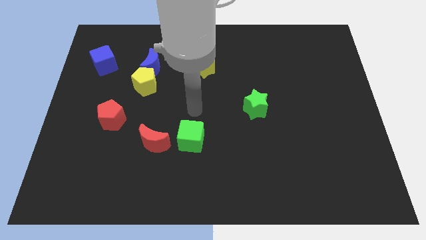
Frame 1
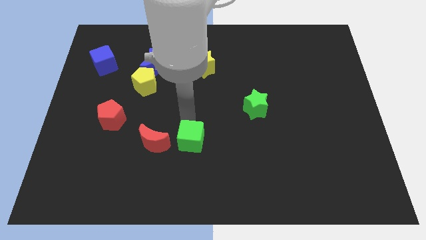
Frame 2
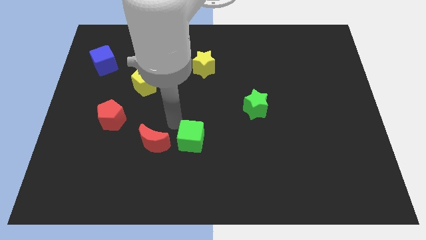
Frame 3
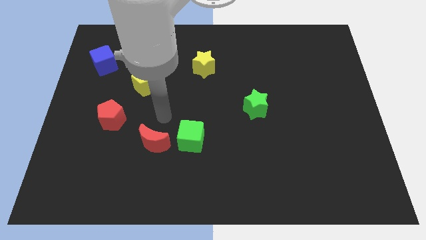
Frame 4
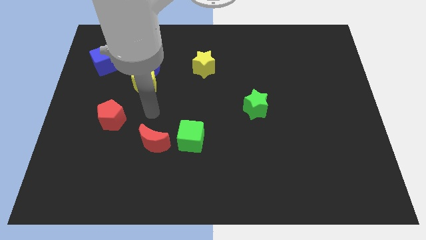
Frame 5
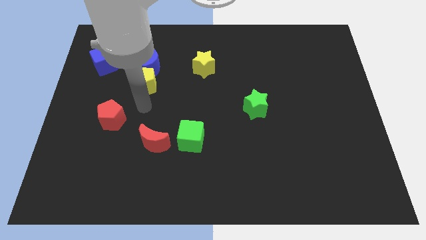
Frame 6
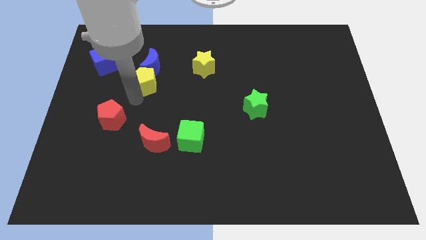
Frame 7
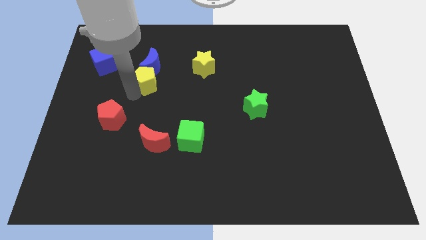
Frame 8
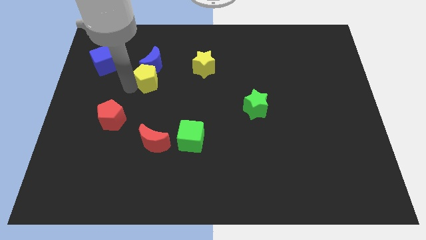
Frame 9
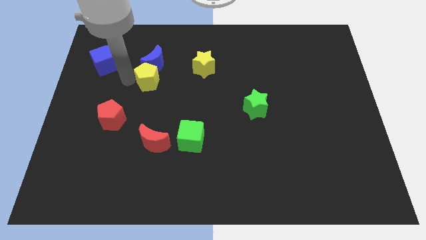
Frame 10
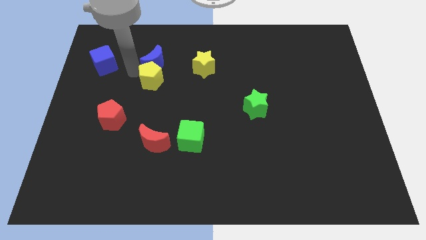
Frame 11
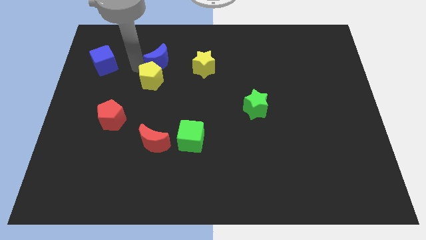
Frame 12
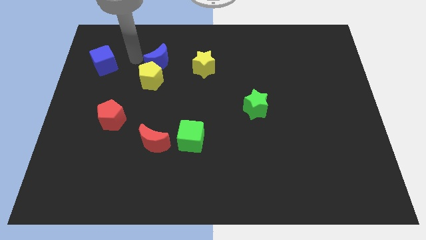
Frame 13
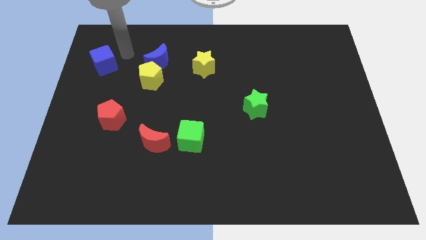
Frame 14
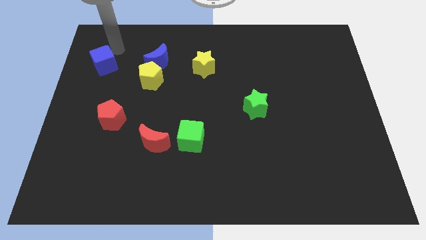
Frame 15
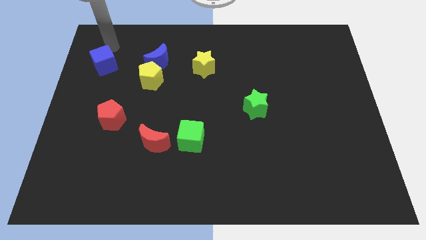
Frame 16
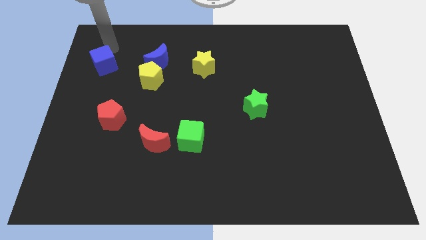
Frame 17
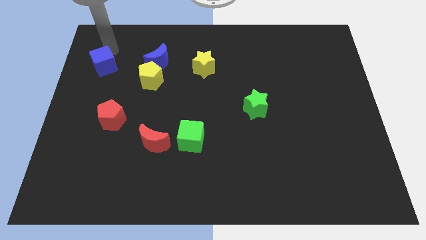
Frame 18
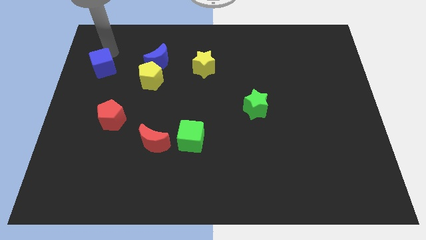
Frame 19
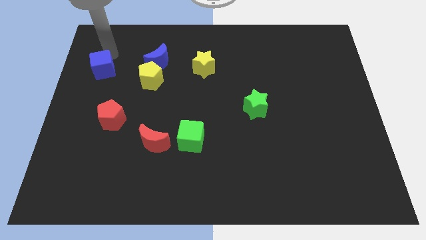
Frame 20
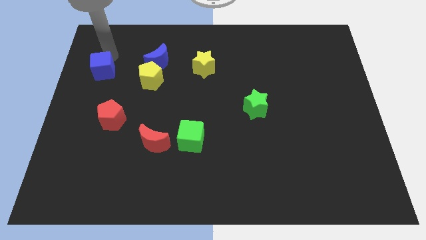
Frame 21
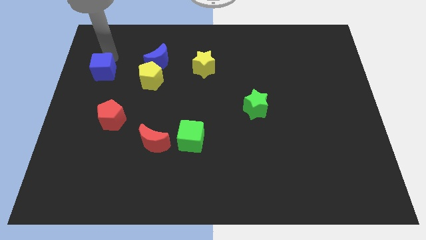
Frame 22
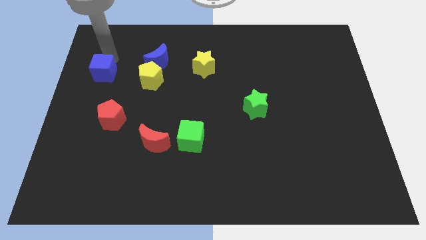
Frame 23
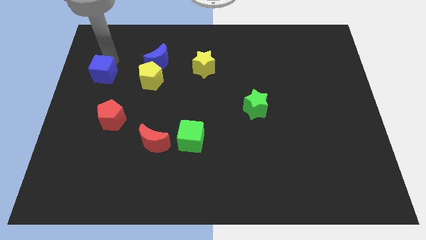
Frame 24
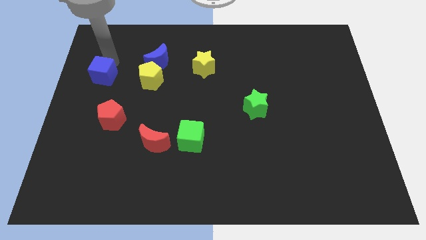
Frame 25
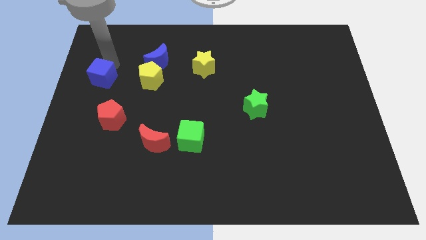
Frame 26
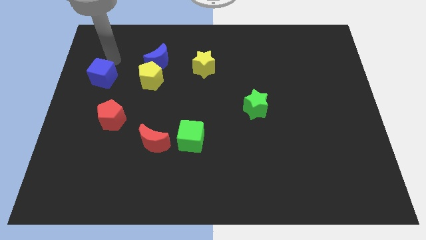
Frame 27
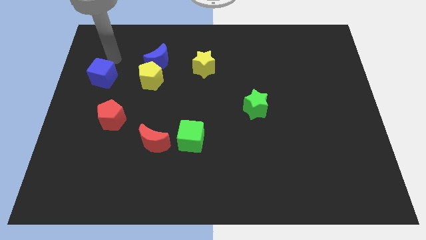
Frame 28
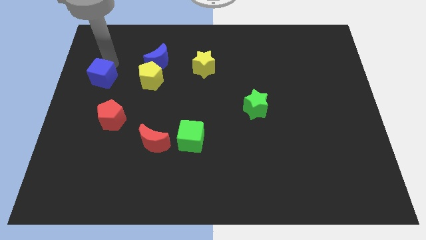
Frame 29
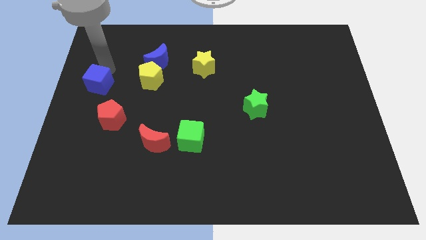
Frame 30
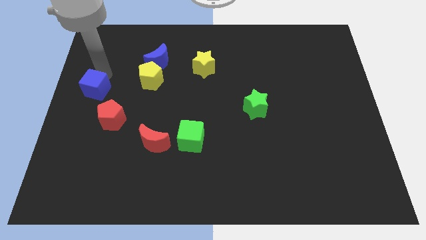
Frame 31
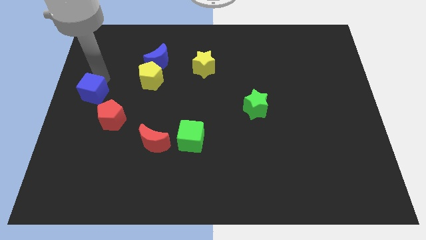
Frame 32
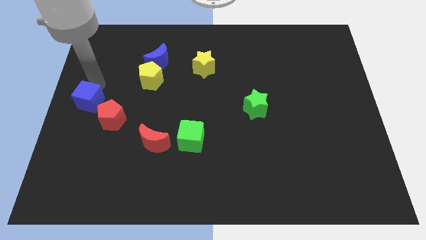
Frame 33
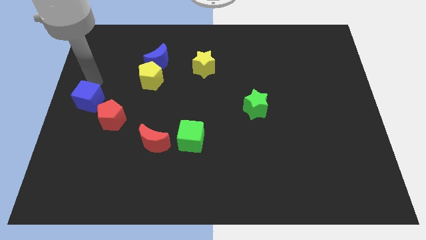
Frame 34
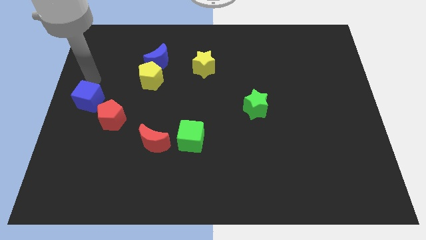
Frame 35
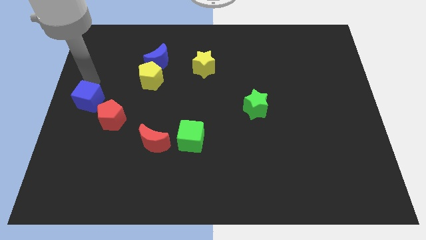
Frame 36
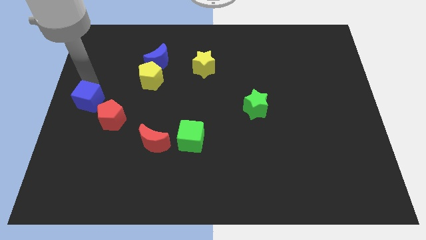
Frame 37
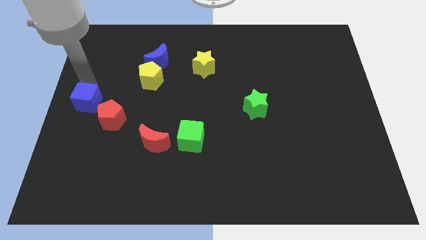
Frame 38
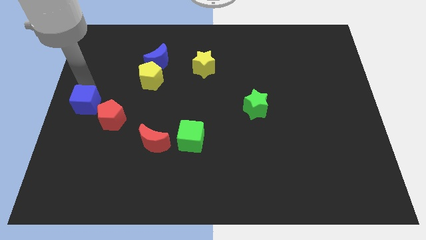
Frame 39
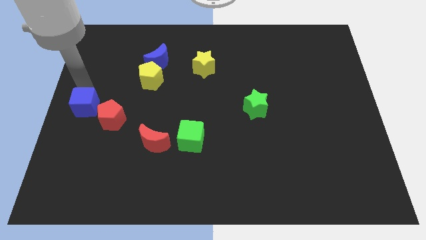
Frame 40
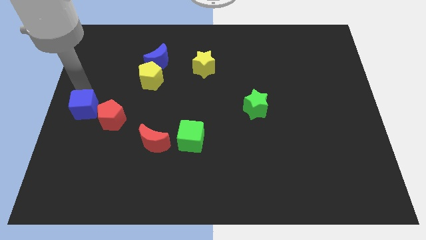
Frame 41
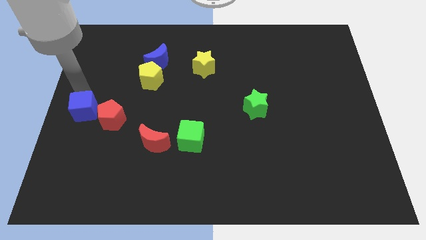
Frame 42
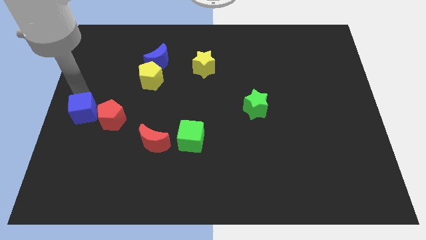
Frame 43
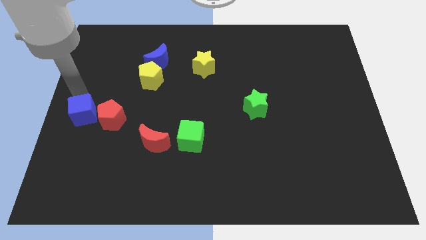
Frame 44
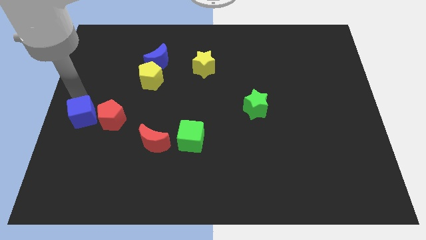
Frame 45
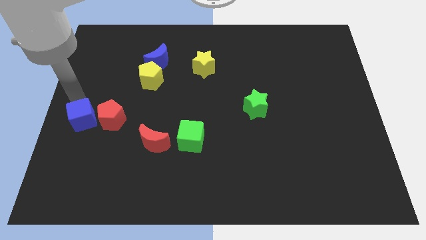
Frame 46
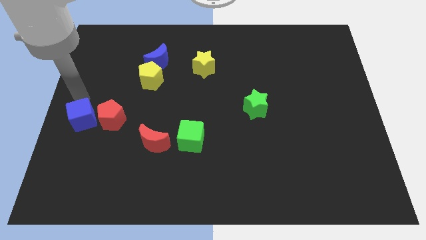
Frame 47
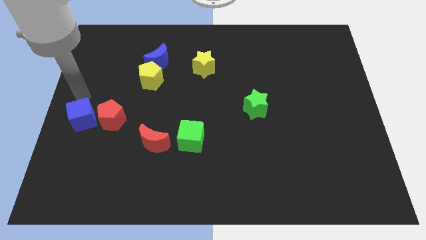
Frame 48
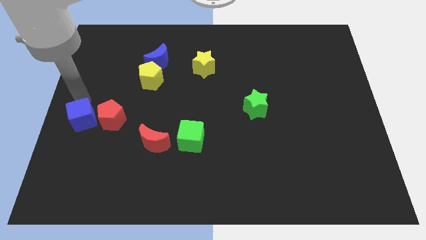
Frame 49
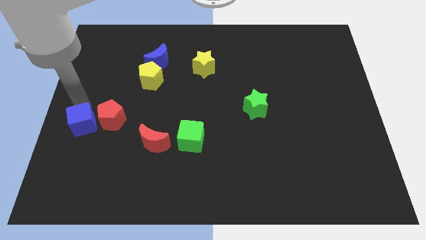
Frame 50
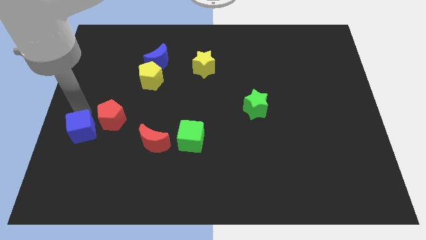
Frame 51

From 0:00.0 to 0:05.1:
move the blue cube downwards

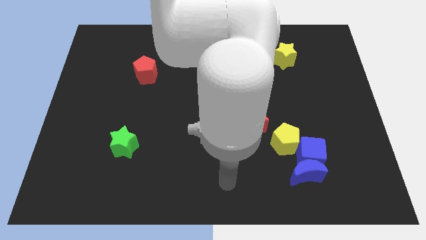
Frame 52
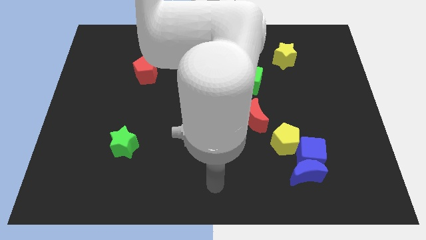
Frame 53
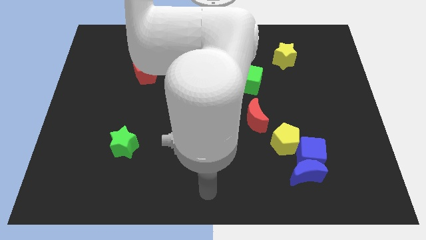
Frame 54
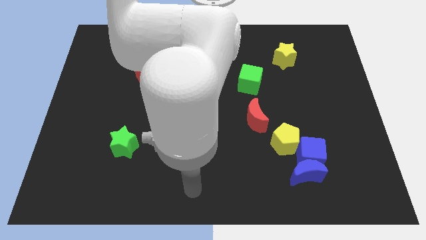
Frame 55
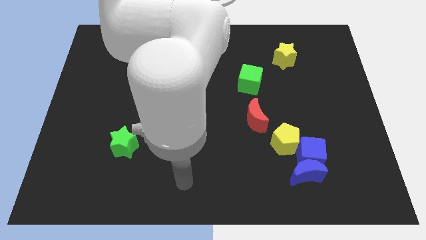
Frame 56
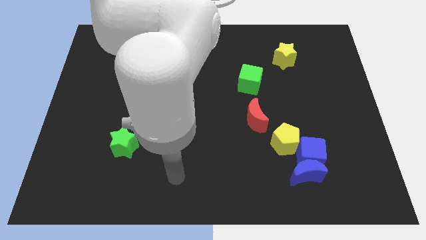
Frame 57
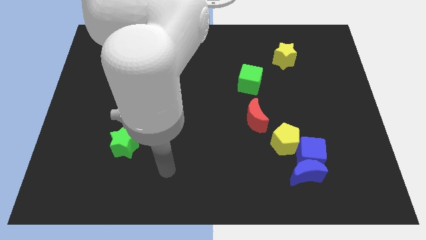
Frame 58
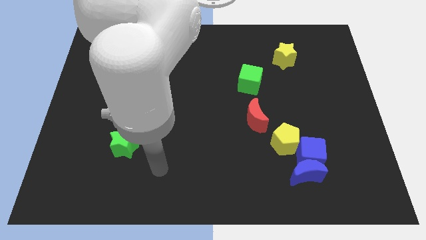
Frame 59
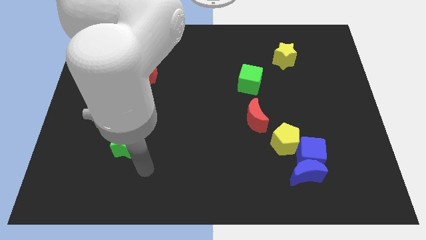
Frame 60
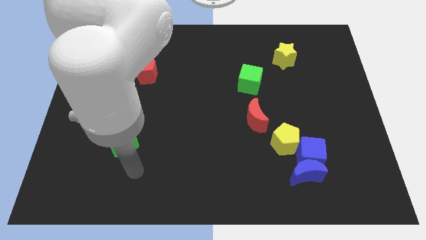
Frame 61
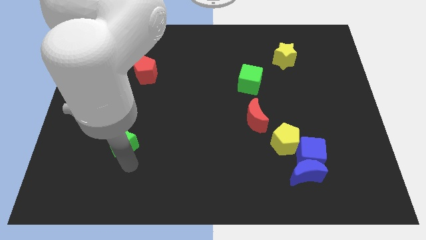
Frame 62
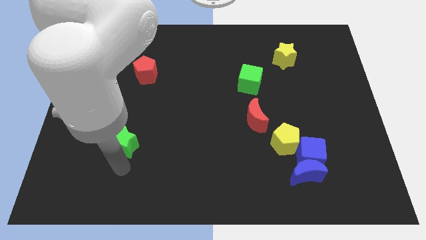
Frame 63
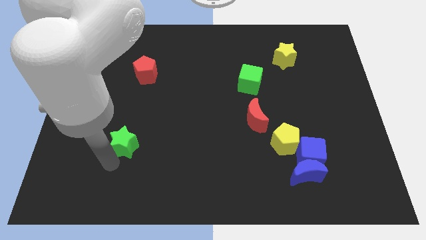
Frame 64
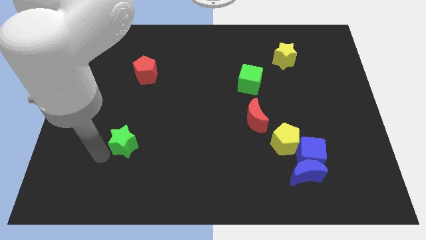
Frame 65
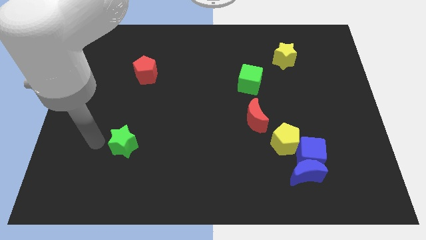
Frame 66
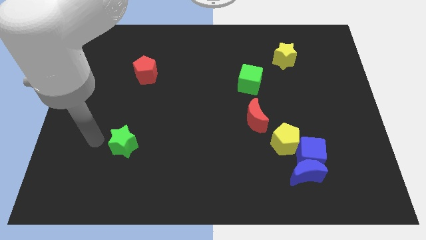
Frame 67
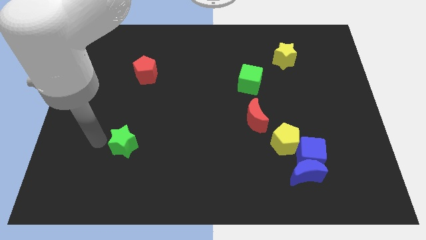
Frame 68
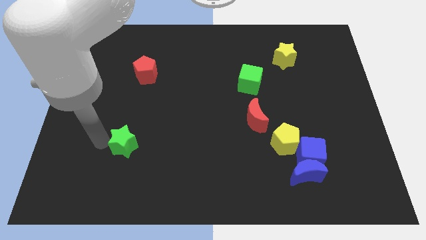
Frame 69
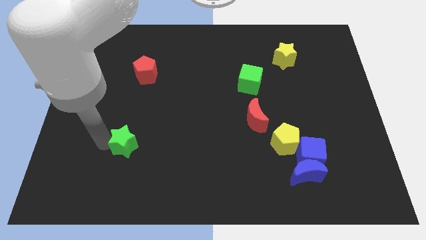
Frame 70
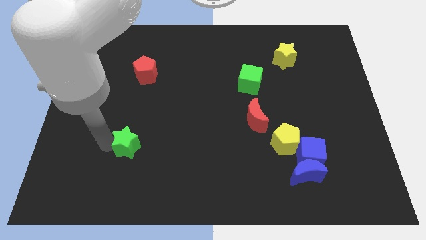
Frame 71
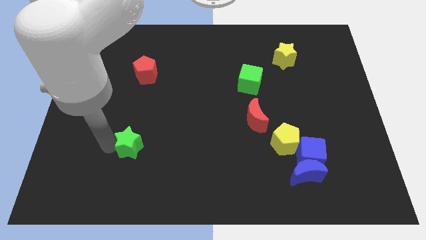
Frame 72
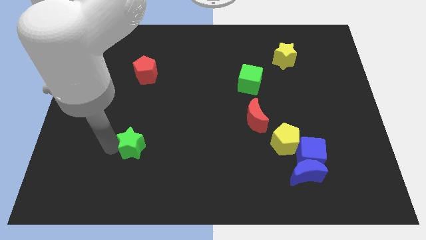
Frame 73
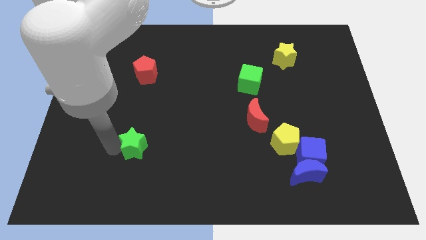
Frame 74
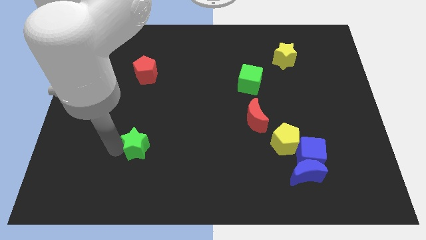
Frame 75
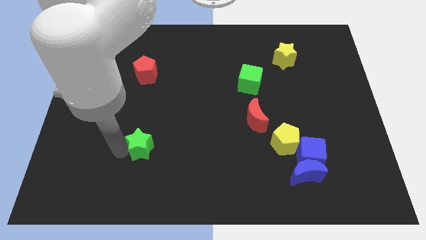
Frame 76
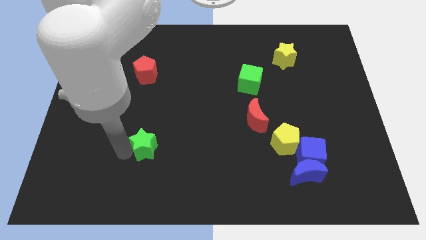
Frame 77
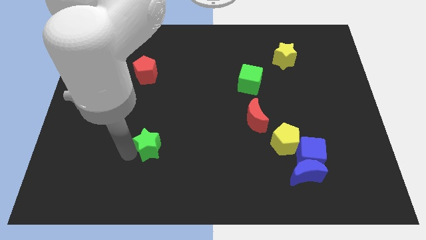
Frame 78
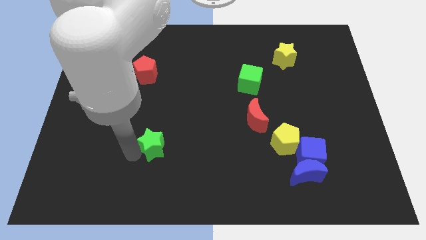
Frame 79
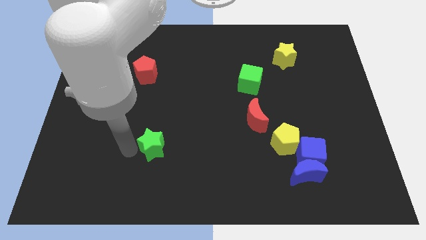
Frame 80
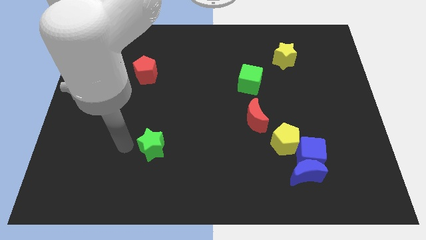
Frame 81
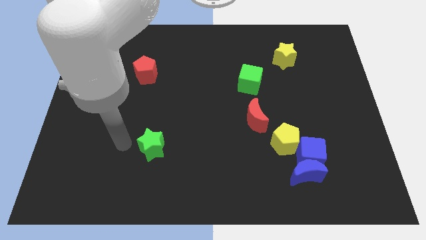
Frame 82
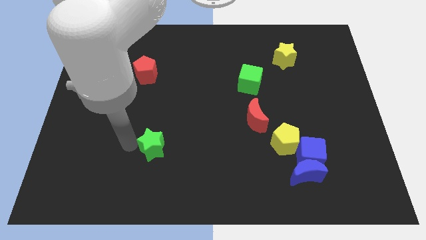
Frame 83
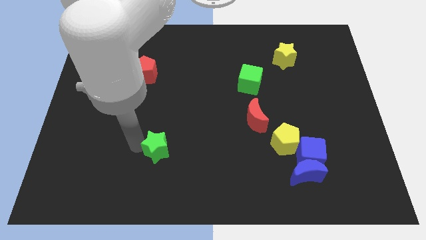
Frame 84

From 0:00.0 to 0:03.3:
push the green star slightly right
